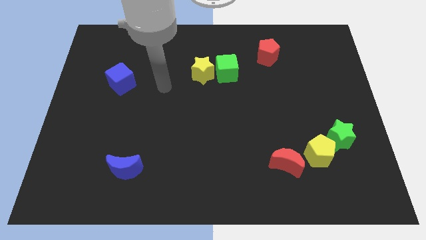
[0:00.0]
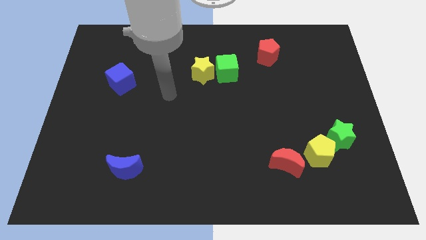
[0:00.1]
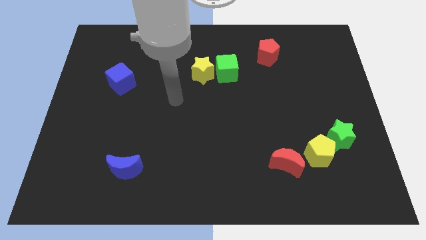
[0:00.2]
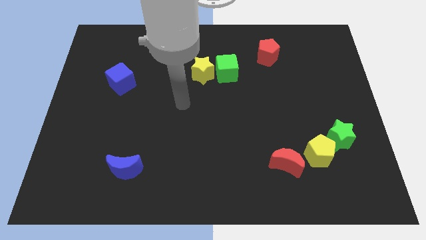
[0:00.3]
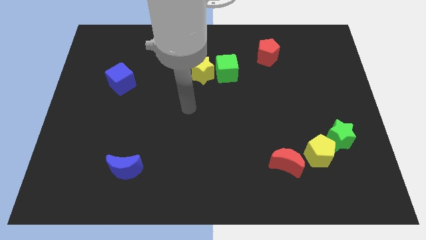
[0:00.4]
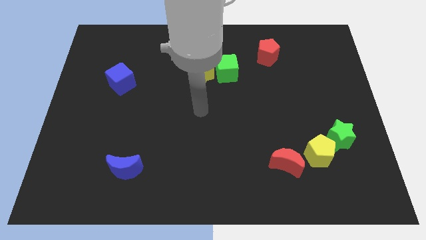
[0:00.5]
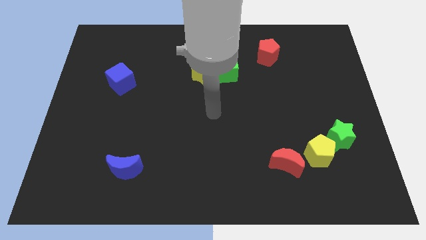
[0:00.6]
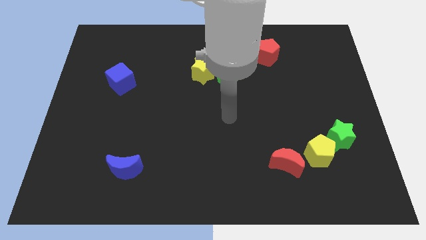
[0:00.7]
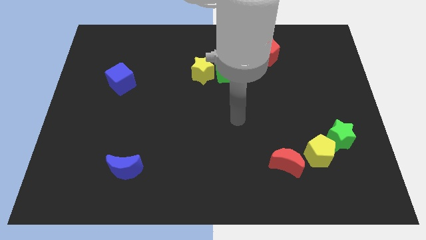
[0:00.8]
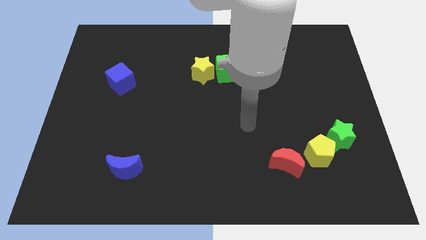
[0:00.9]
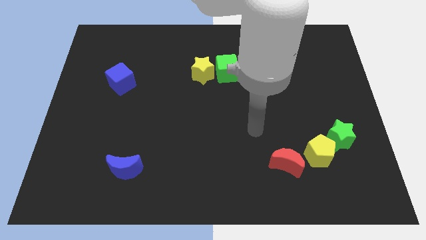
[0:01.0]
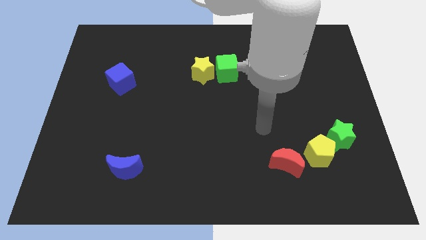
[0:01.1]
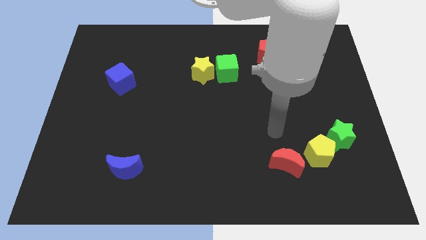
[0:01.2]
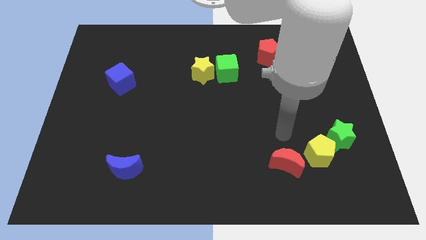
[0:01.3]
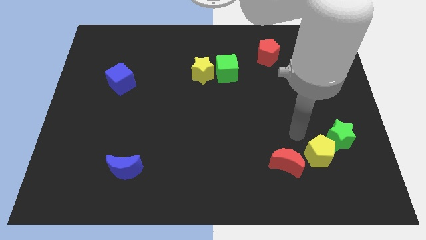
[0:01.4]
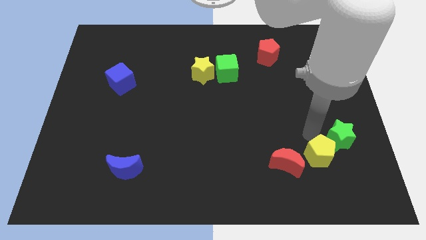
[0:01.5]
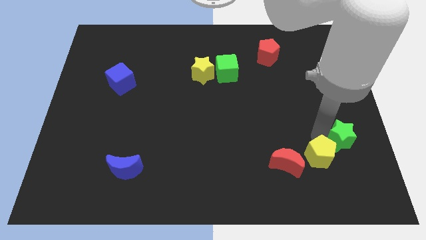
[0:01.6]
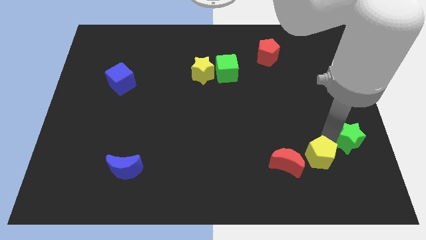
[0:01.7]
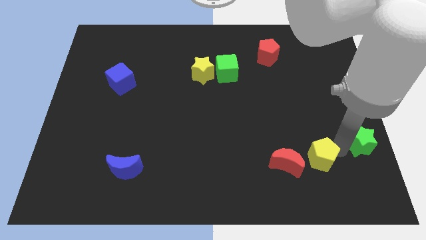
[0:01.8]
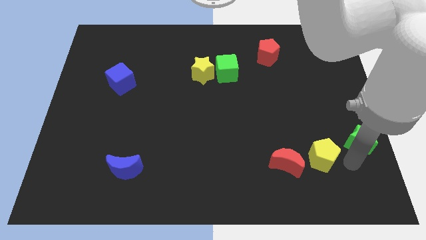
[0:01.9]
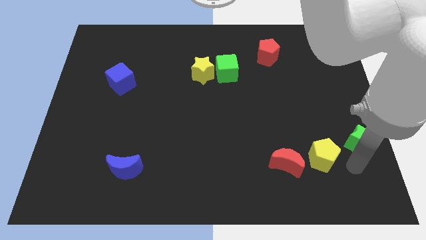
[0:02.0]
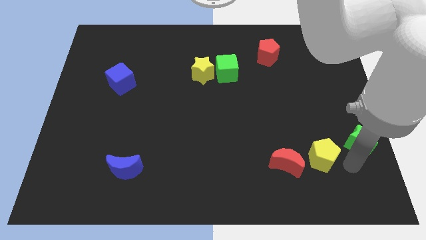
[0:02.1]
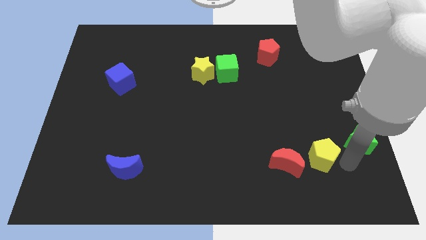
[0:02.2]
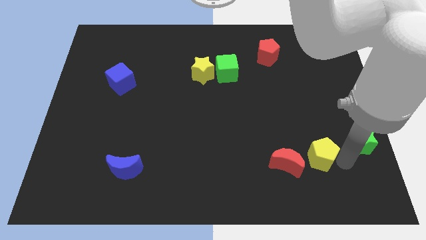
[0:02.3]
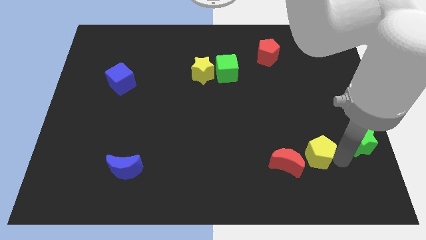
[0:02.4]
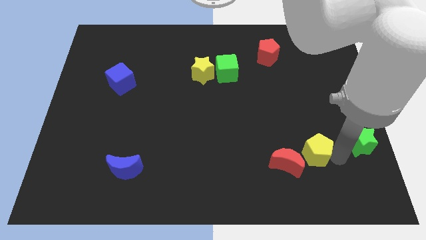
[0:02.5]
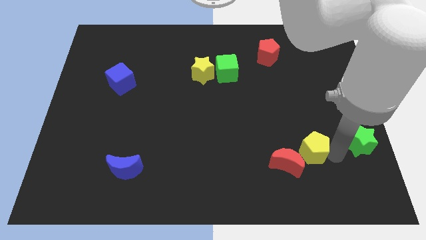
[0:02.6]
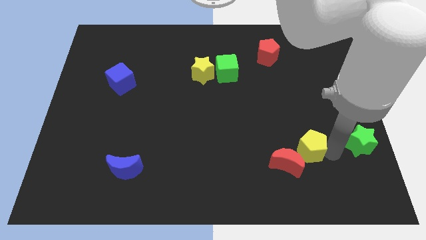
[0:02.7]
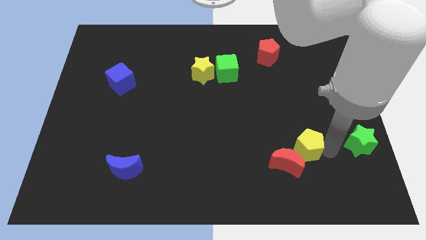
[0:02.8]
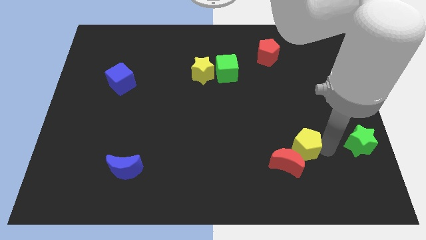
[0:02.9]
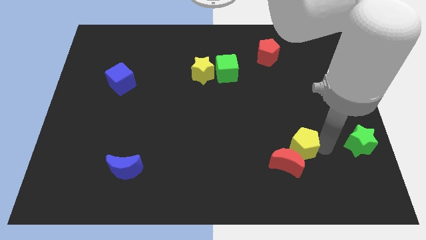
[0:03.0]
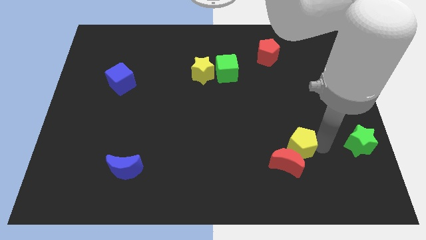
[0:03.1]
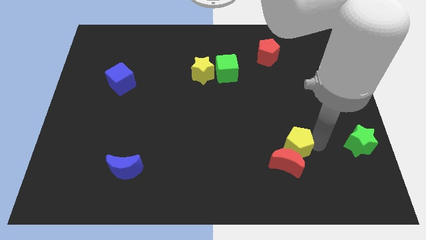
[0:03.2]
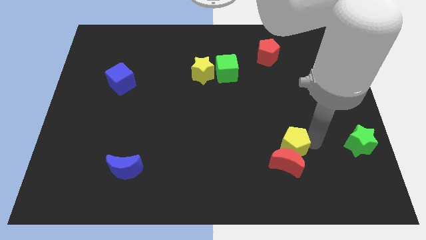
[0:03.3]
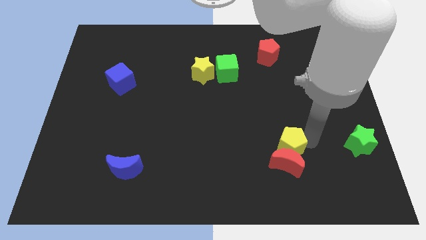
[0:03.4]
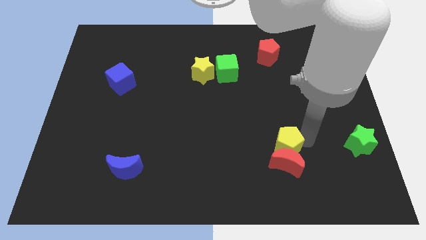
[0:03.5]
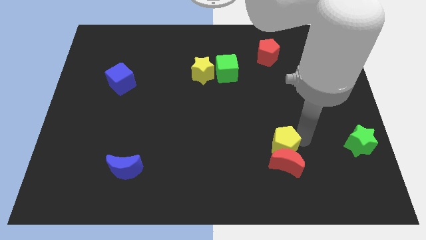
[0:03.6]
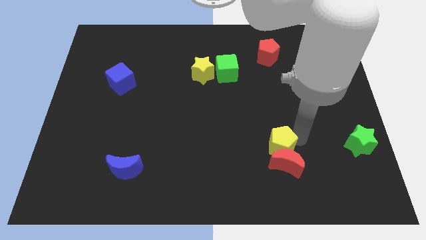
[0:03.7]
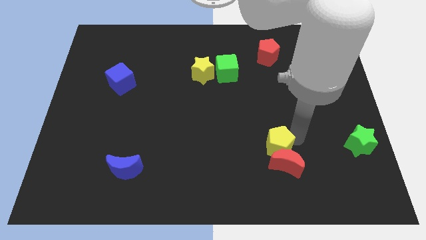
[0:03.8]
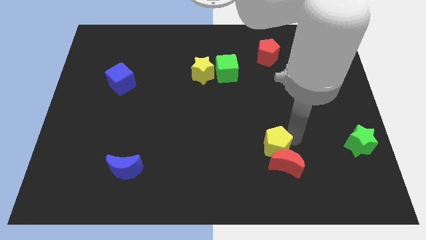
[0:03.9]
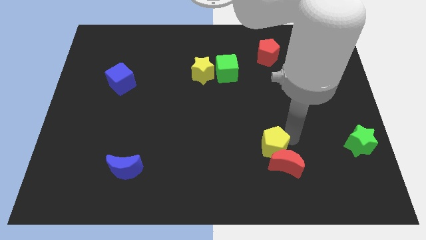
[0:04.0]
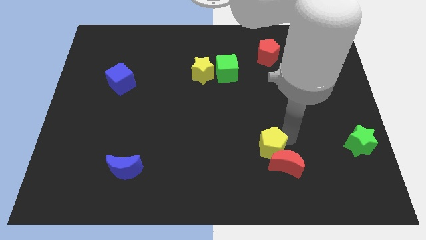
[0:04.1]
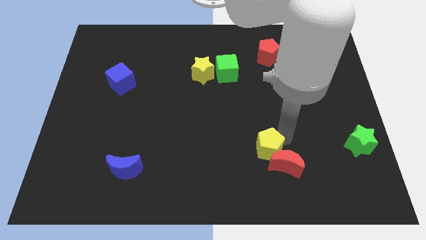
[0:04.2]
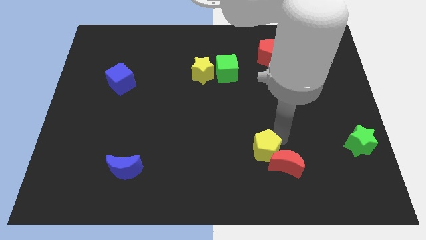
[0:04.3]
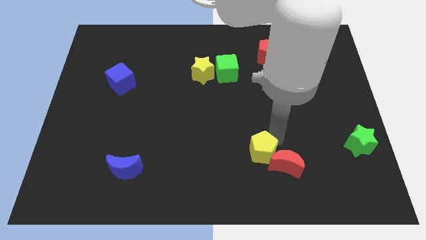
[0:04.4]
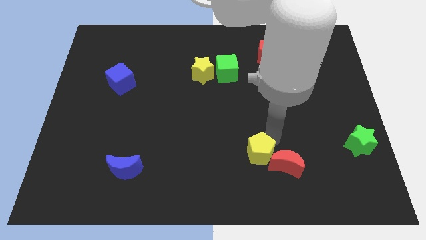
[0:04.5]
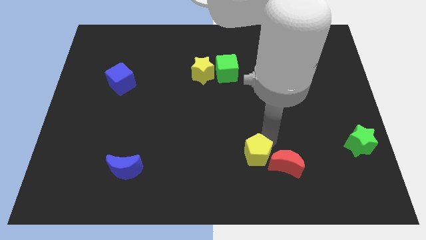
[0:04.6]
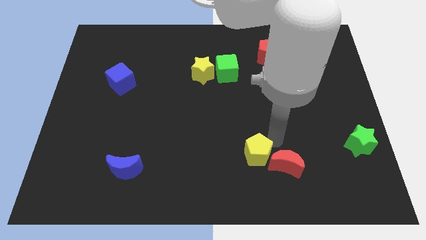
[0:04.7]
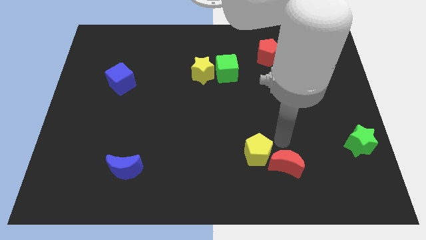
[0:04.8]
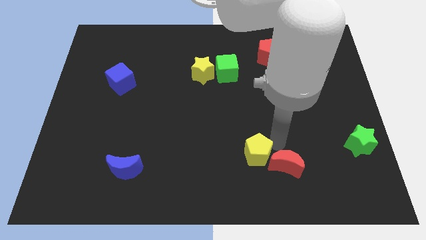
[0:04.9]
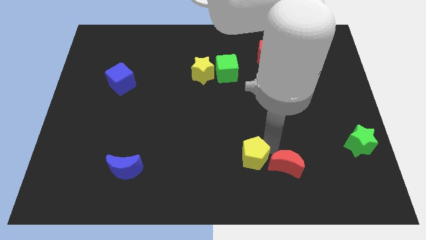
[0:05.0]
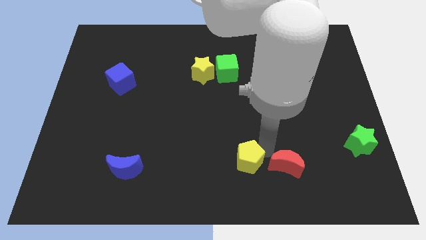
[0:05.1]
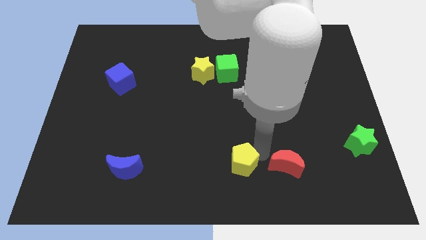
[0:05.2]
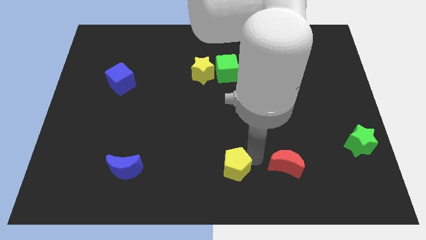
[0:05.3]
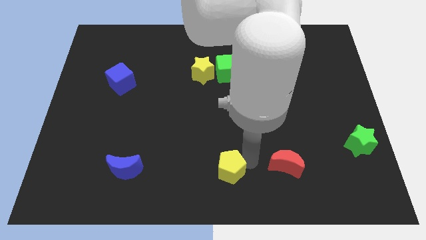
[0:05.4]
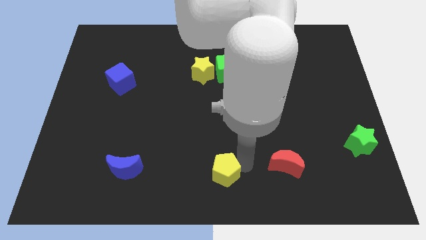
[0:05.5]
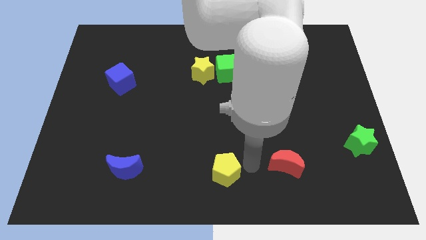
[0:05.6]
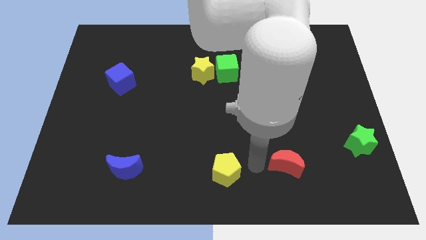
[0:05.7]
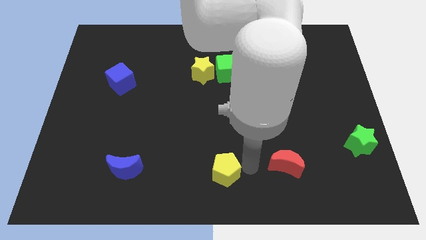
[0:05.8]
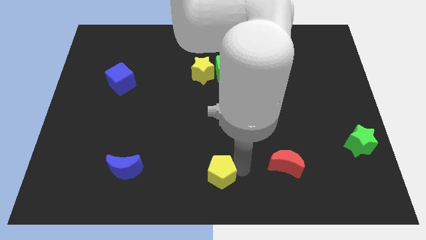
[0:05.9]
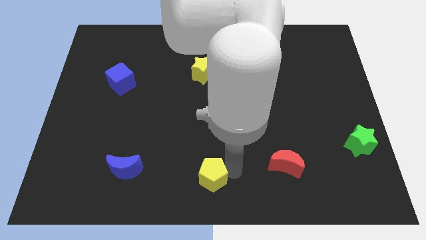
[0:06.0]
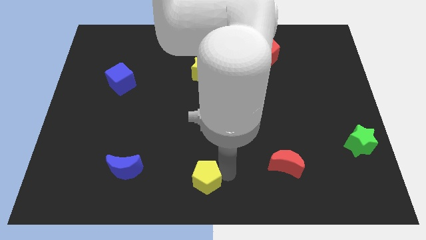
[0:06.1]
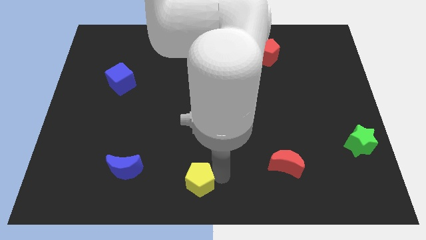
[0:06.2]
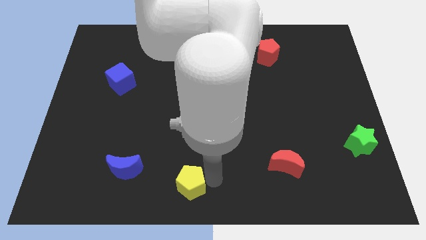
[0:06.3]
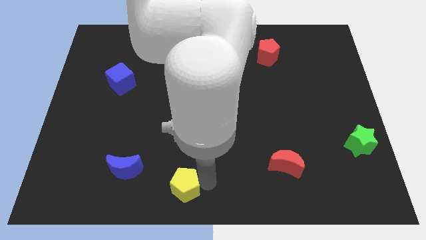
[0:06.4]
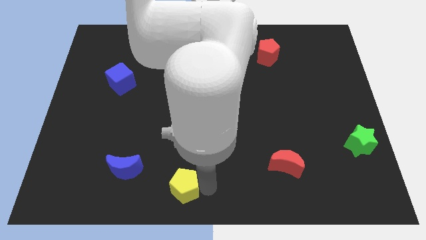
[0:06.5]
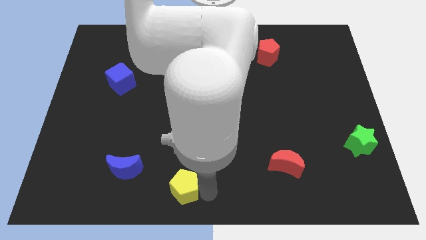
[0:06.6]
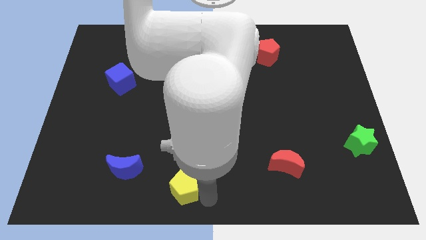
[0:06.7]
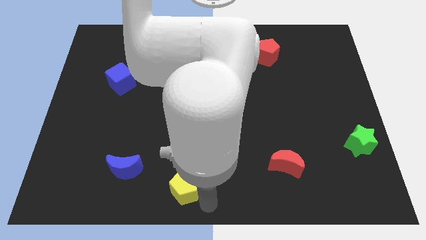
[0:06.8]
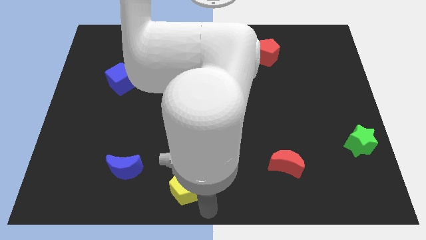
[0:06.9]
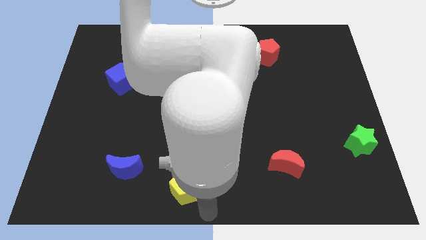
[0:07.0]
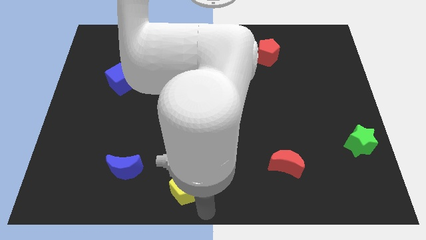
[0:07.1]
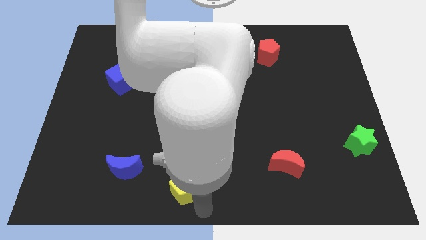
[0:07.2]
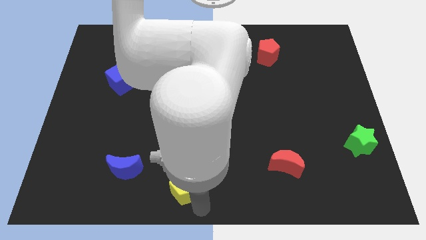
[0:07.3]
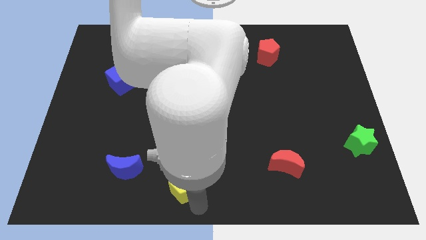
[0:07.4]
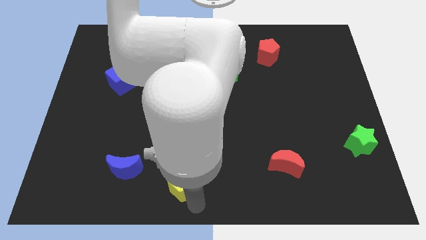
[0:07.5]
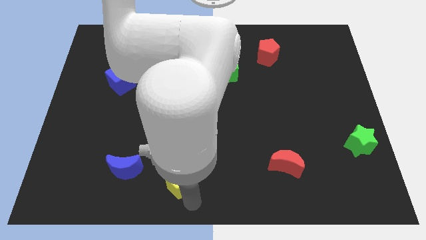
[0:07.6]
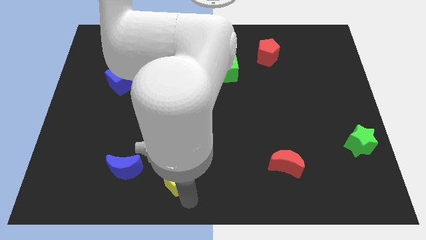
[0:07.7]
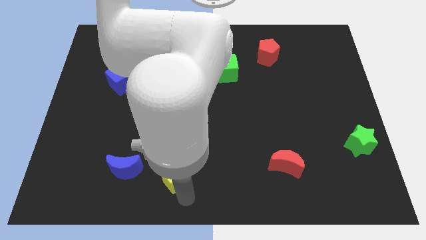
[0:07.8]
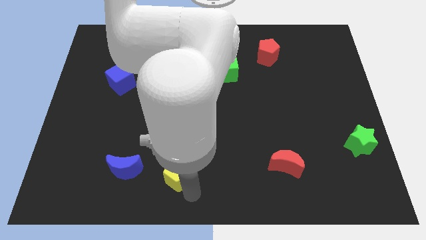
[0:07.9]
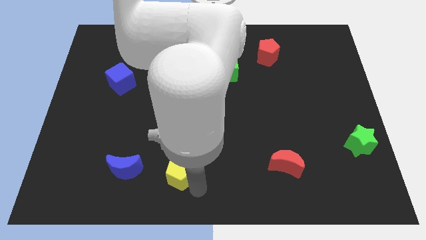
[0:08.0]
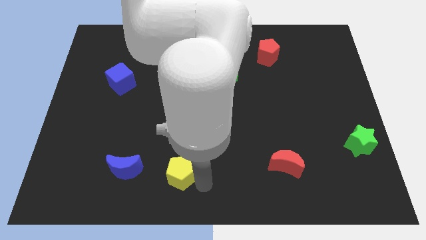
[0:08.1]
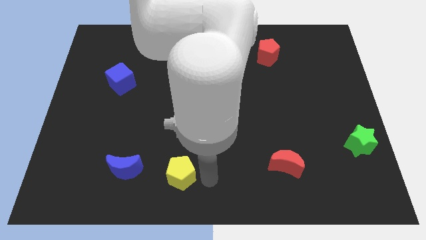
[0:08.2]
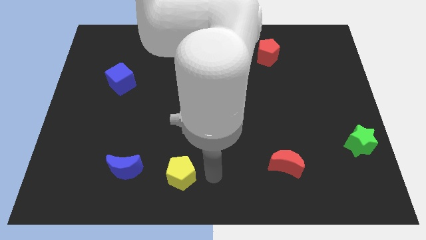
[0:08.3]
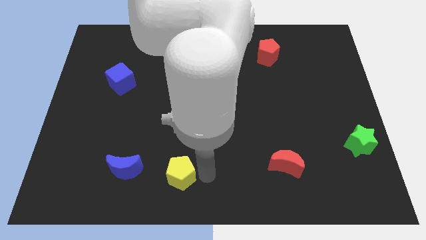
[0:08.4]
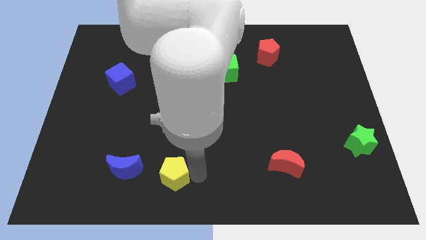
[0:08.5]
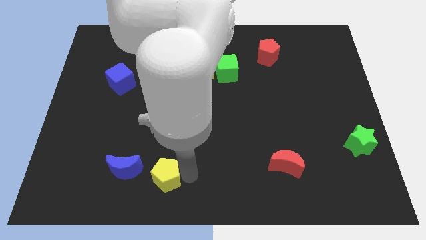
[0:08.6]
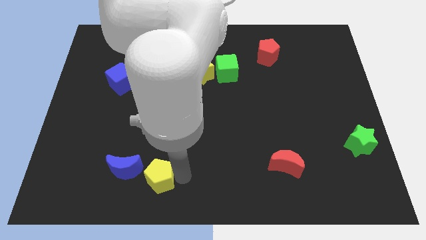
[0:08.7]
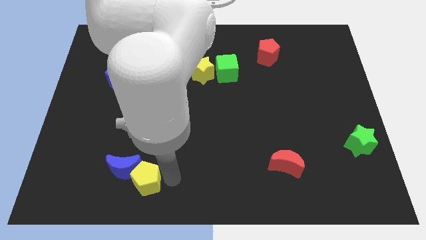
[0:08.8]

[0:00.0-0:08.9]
put the yellow pentagon towards the blue moon
